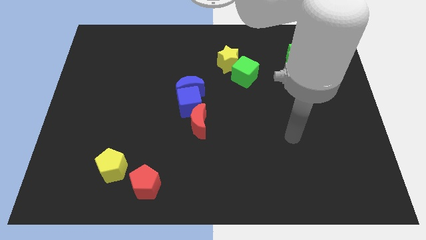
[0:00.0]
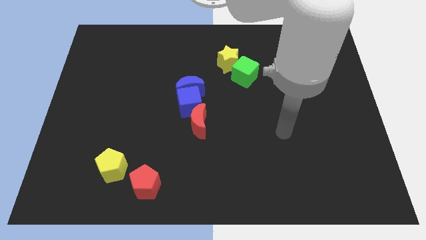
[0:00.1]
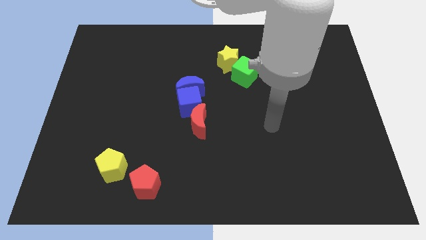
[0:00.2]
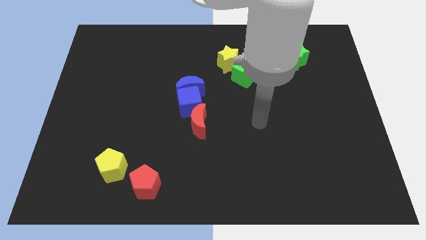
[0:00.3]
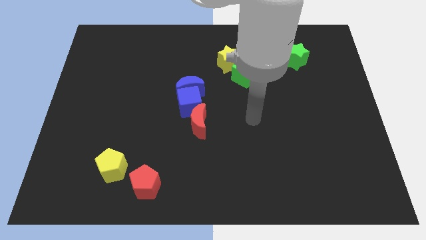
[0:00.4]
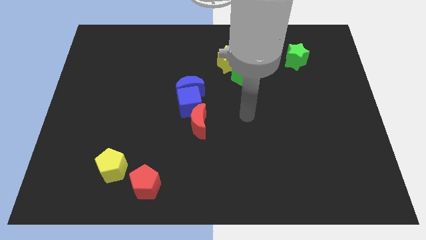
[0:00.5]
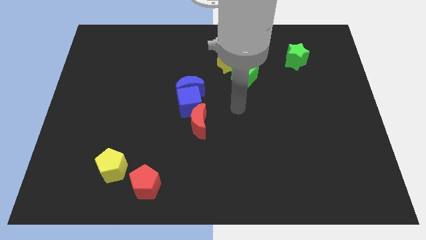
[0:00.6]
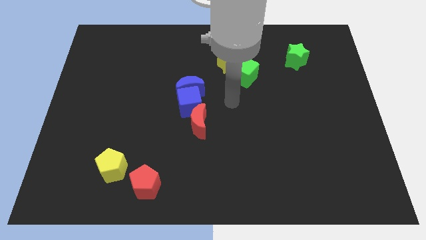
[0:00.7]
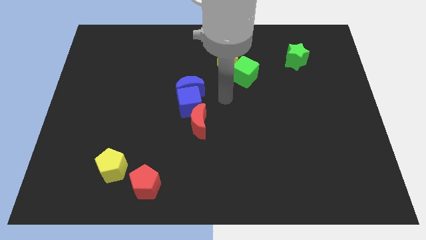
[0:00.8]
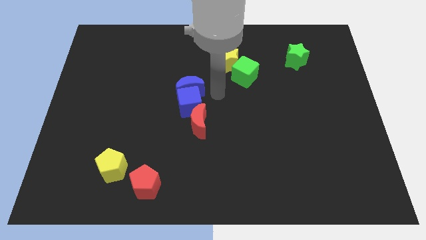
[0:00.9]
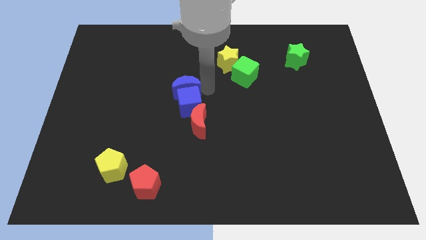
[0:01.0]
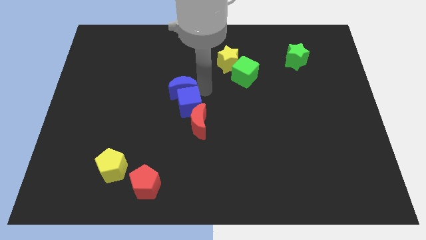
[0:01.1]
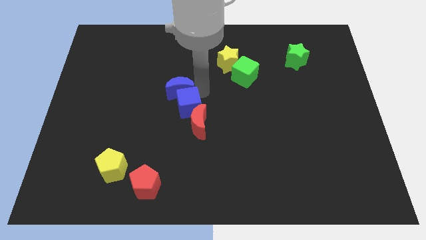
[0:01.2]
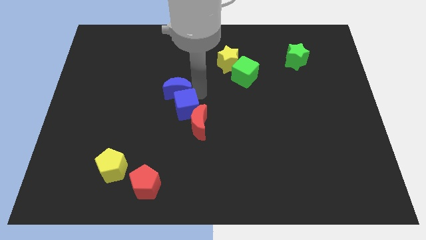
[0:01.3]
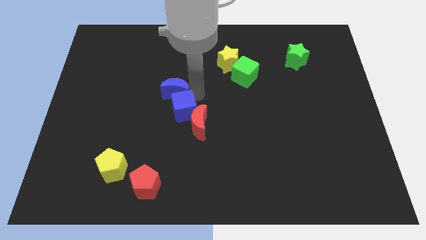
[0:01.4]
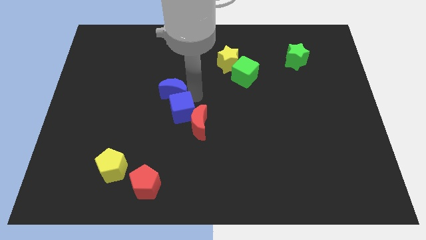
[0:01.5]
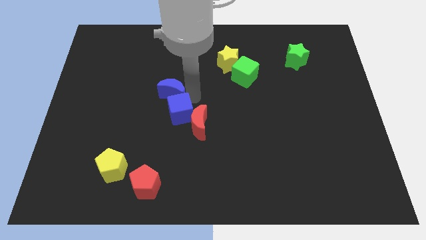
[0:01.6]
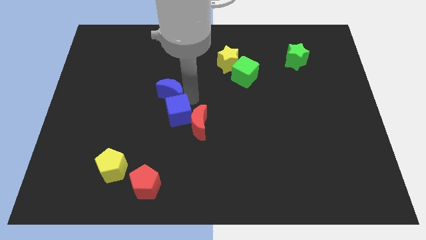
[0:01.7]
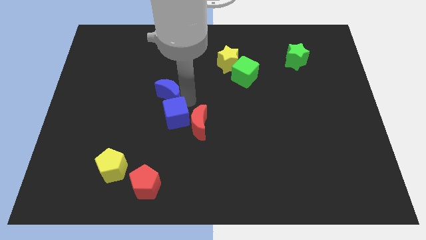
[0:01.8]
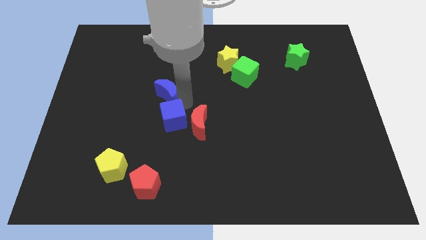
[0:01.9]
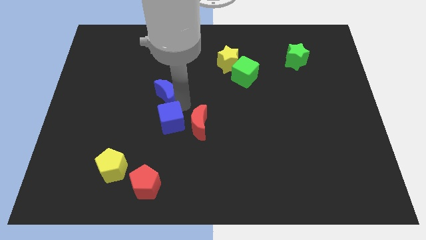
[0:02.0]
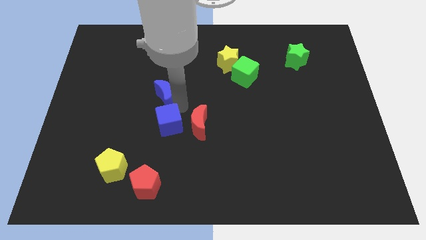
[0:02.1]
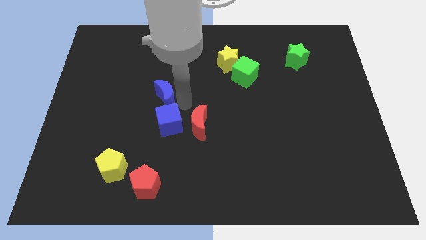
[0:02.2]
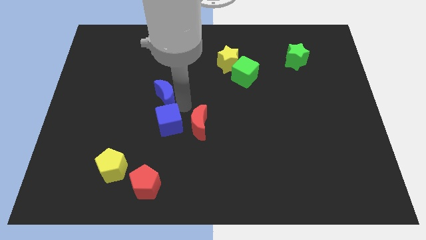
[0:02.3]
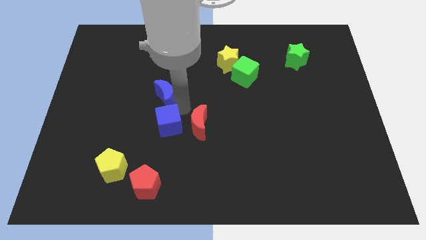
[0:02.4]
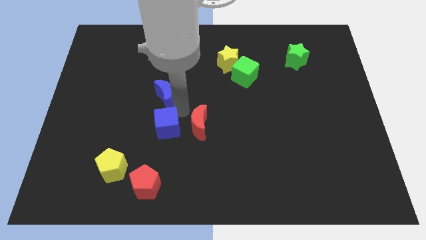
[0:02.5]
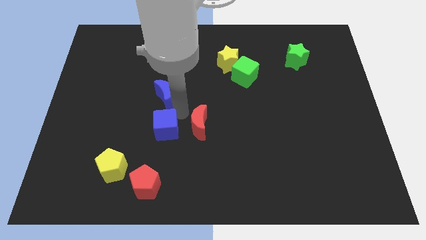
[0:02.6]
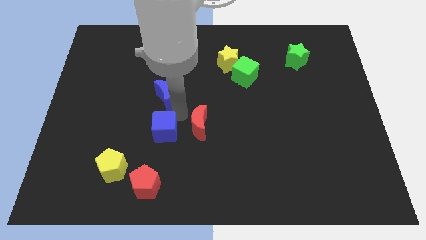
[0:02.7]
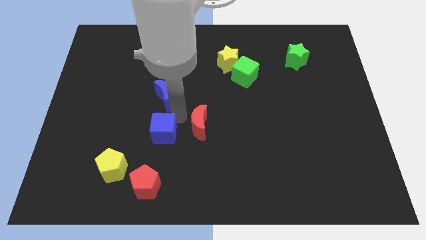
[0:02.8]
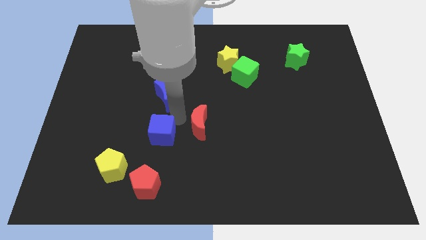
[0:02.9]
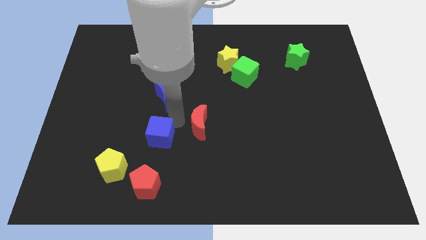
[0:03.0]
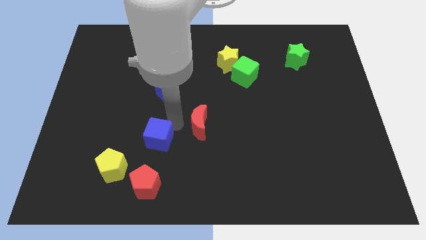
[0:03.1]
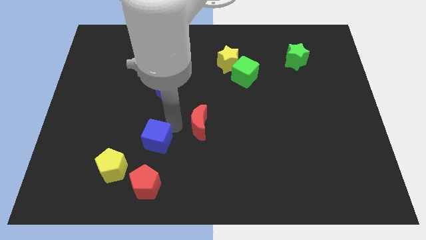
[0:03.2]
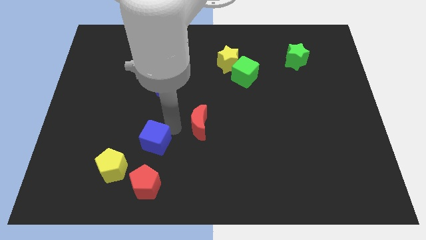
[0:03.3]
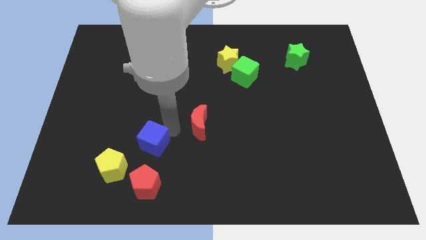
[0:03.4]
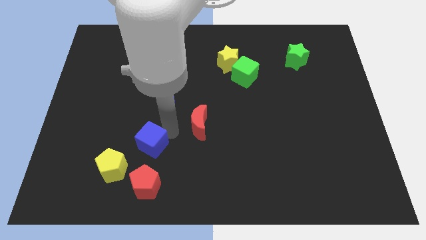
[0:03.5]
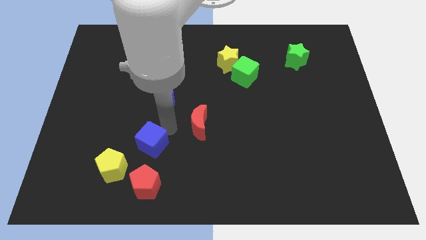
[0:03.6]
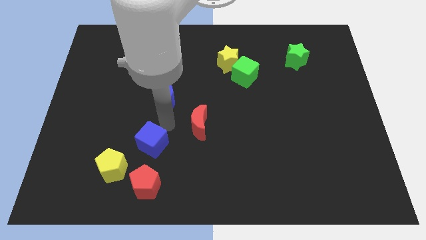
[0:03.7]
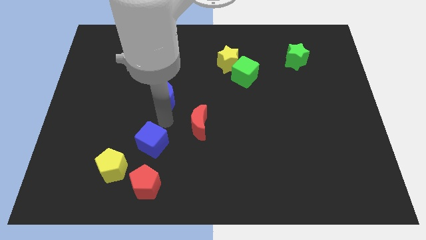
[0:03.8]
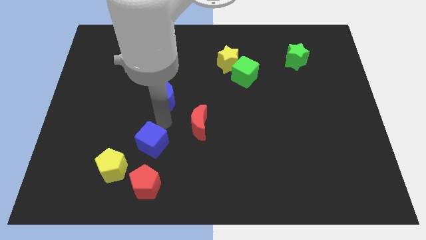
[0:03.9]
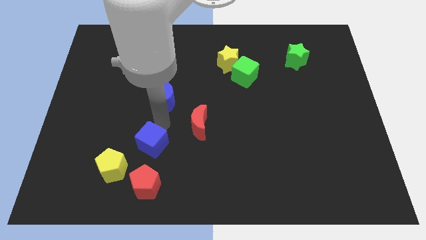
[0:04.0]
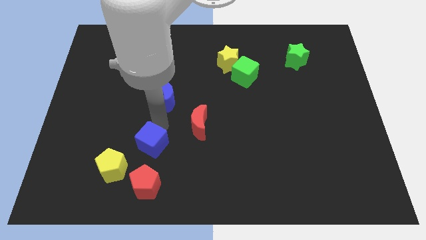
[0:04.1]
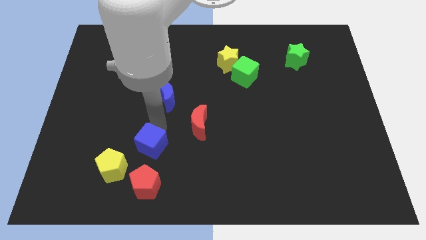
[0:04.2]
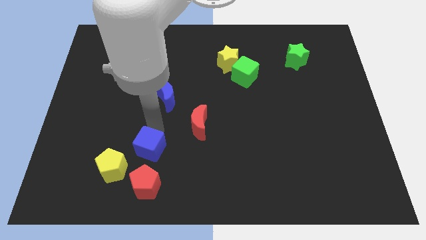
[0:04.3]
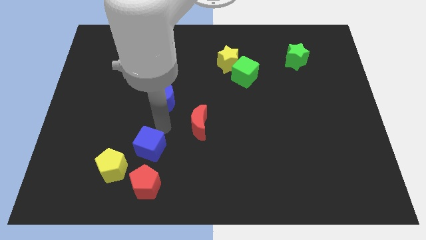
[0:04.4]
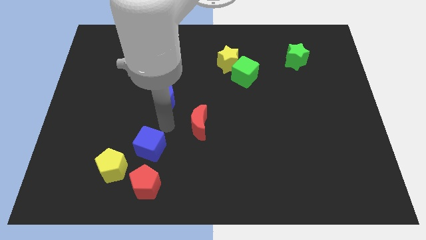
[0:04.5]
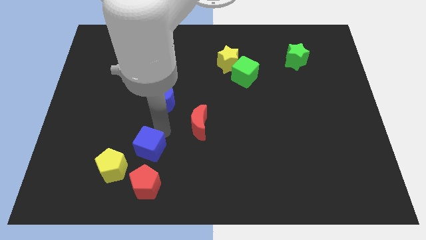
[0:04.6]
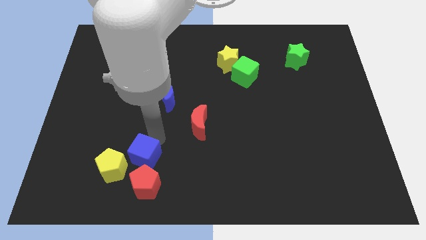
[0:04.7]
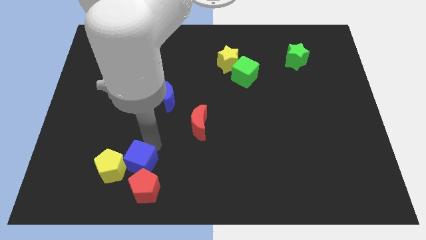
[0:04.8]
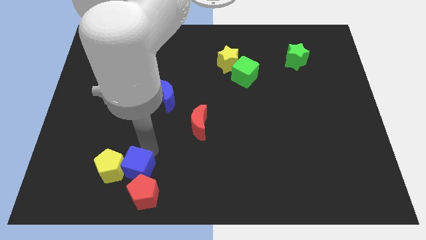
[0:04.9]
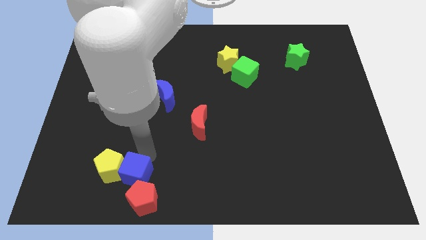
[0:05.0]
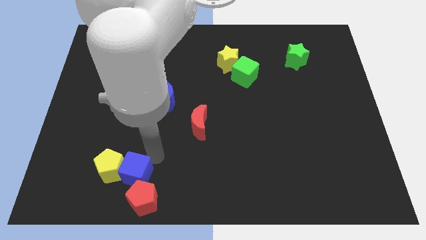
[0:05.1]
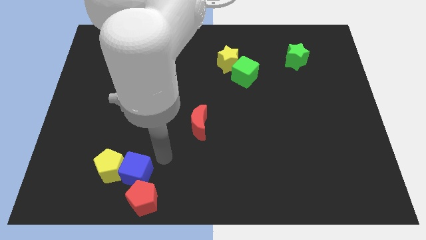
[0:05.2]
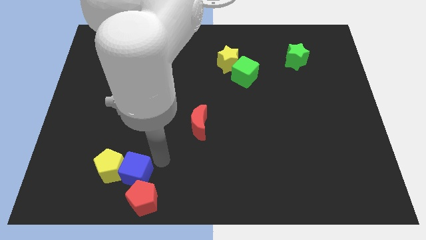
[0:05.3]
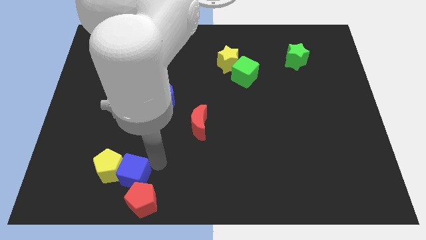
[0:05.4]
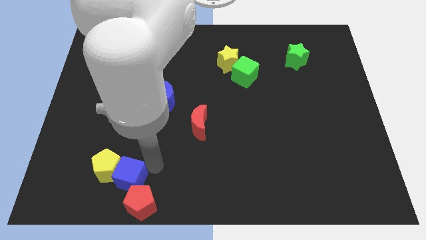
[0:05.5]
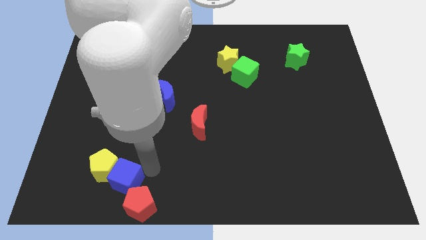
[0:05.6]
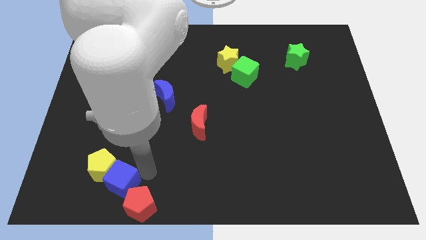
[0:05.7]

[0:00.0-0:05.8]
move the blue cube left of the red pentagon

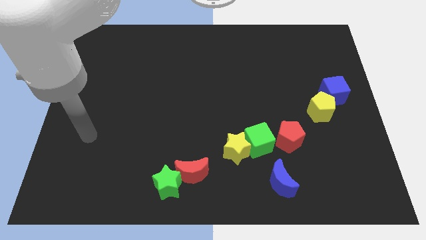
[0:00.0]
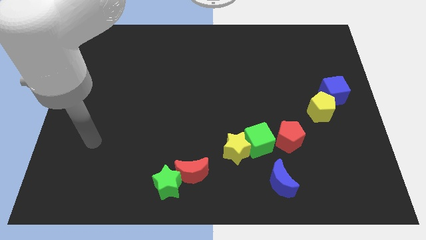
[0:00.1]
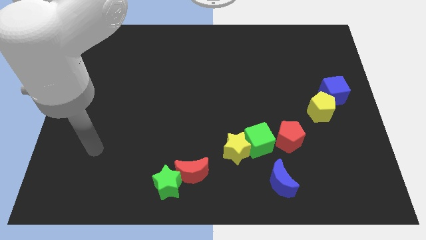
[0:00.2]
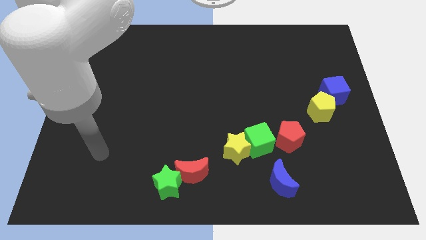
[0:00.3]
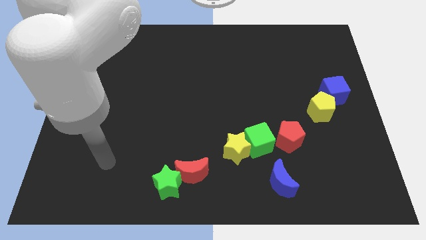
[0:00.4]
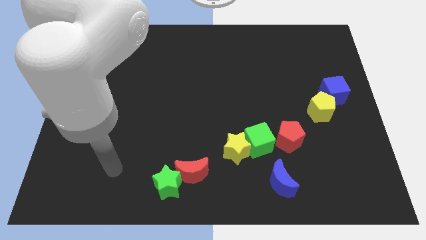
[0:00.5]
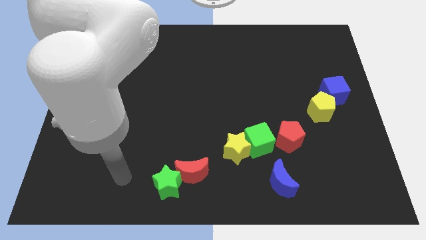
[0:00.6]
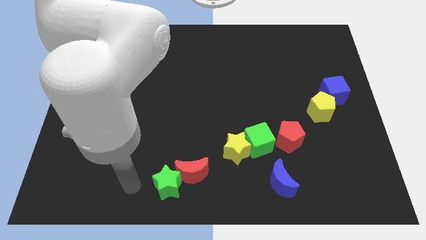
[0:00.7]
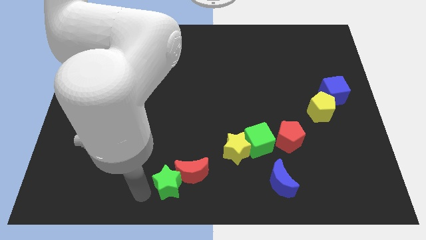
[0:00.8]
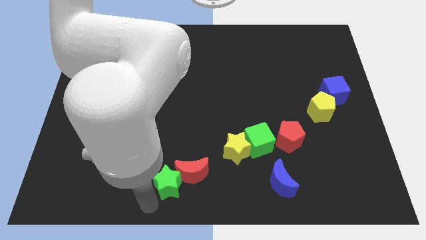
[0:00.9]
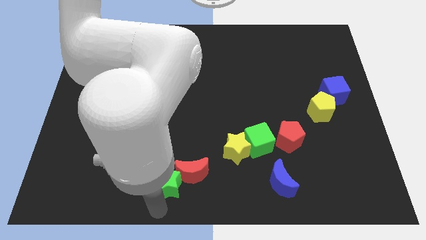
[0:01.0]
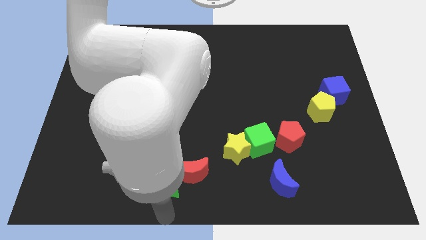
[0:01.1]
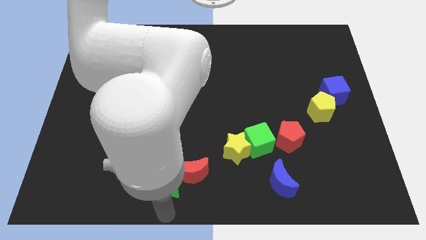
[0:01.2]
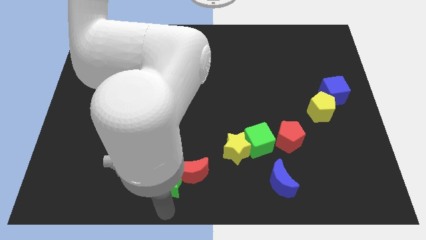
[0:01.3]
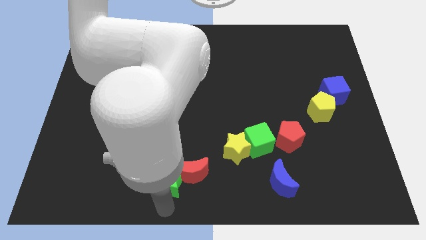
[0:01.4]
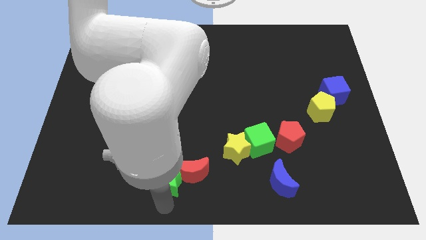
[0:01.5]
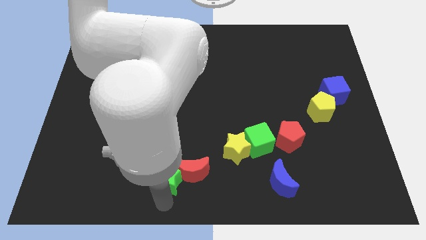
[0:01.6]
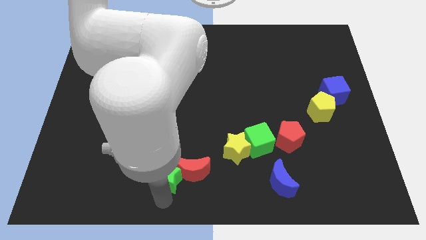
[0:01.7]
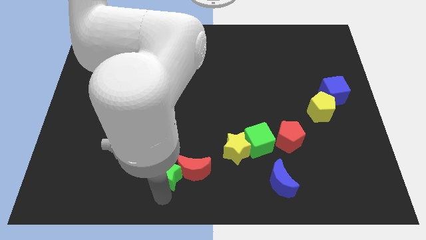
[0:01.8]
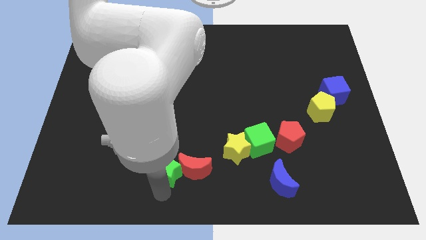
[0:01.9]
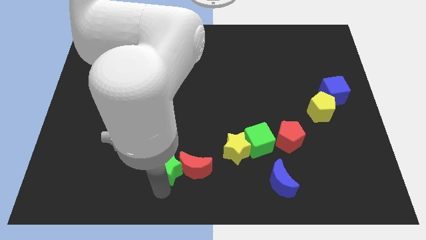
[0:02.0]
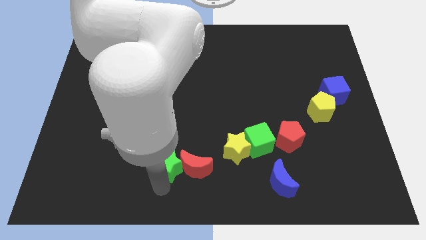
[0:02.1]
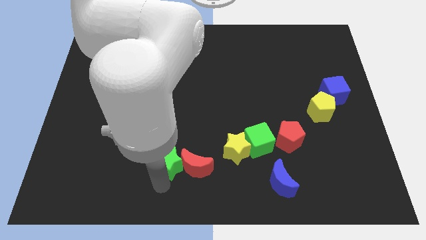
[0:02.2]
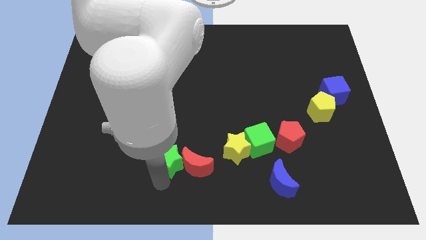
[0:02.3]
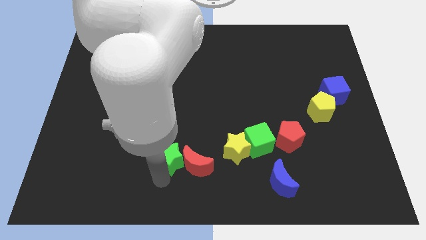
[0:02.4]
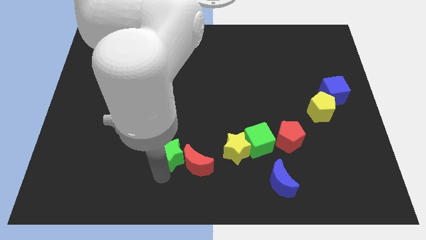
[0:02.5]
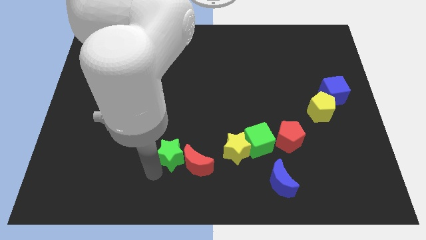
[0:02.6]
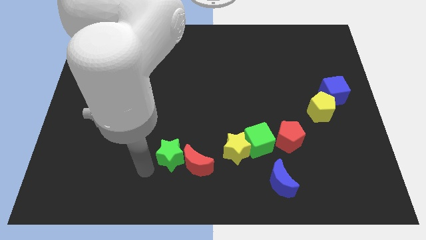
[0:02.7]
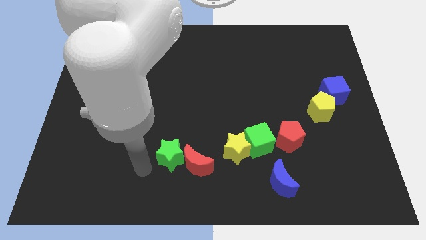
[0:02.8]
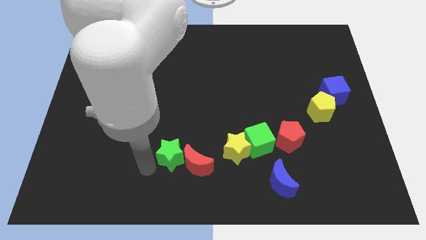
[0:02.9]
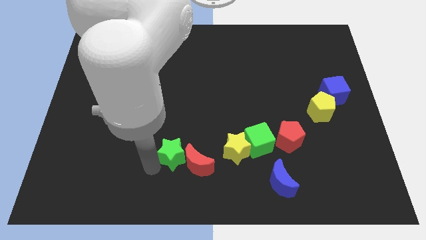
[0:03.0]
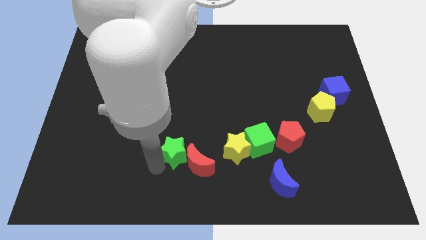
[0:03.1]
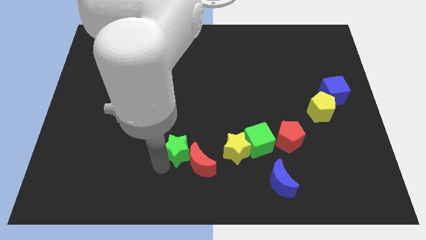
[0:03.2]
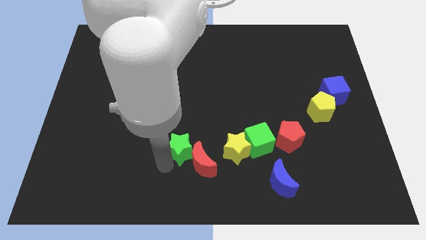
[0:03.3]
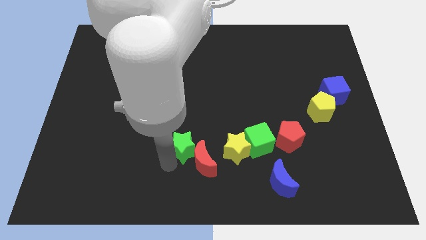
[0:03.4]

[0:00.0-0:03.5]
move the green star just left of the green cube
